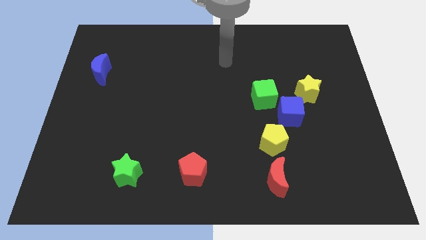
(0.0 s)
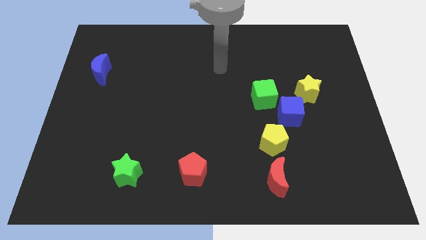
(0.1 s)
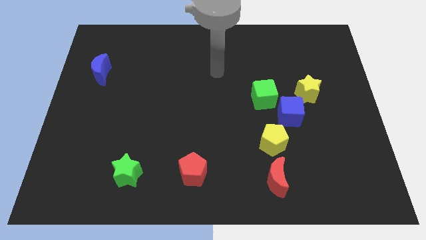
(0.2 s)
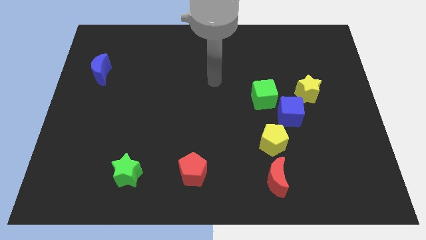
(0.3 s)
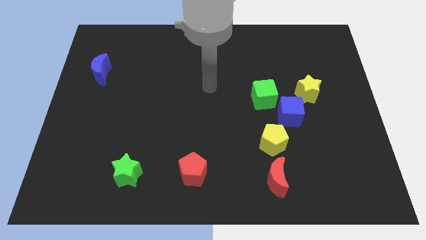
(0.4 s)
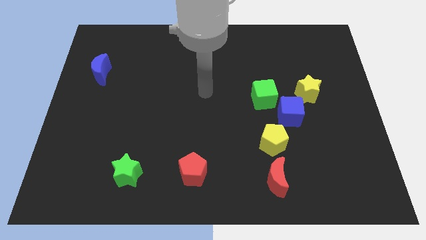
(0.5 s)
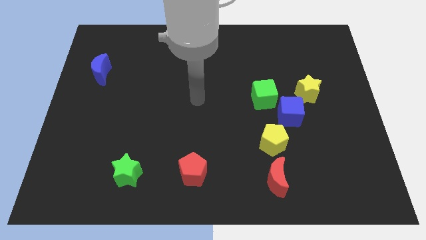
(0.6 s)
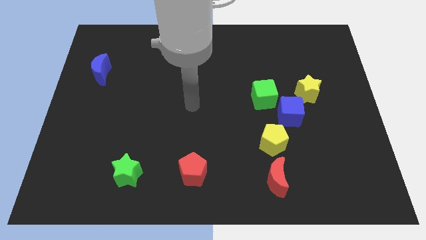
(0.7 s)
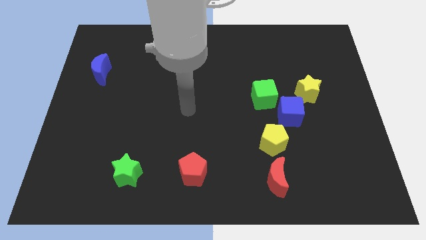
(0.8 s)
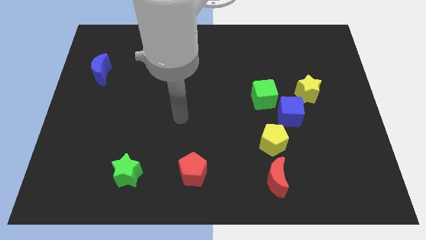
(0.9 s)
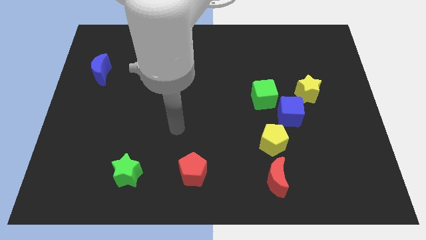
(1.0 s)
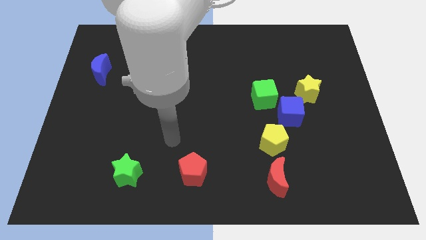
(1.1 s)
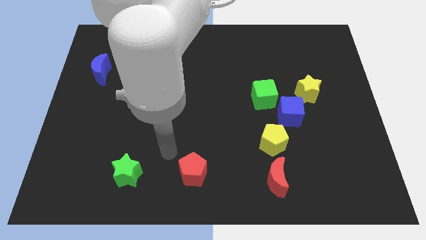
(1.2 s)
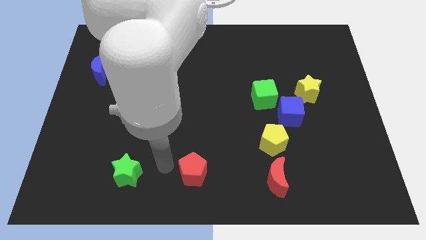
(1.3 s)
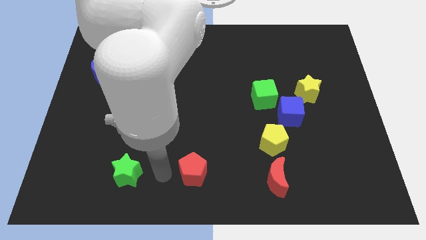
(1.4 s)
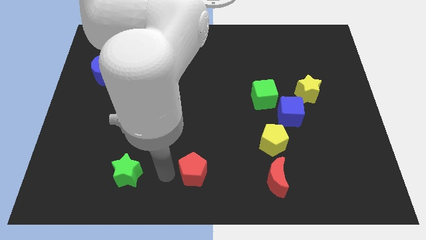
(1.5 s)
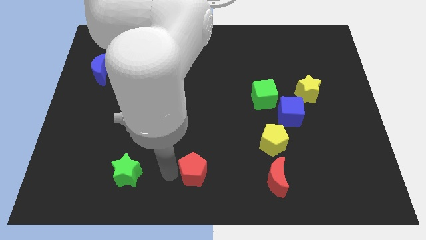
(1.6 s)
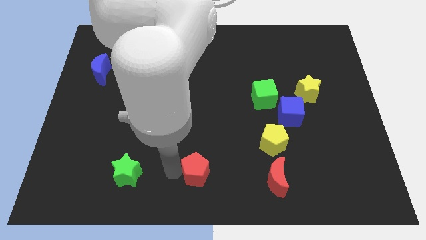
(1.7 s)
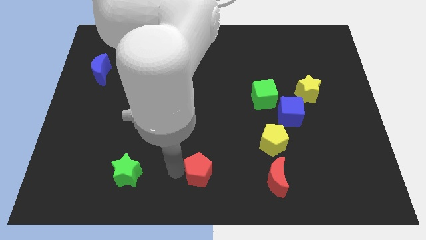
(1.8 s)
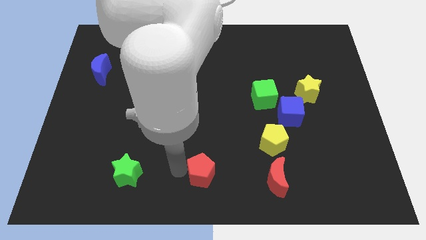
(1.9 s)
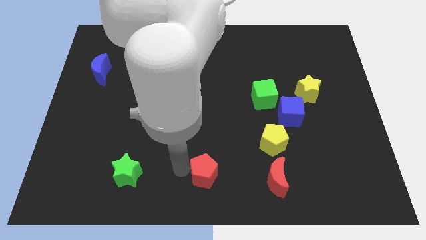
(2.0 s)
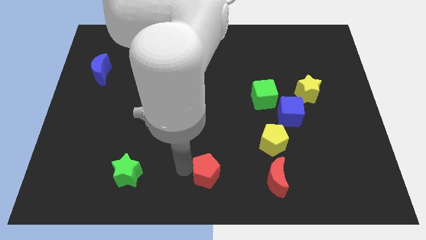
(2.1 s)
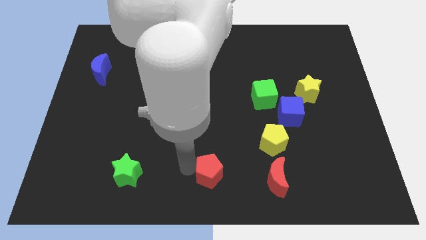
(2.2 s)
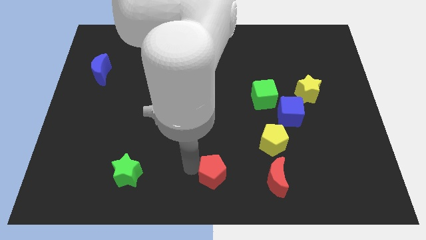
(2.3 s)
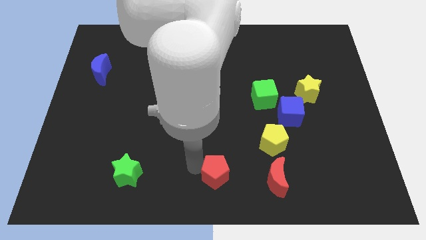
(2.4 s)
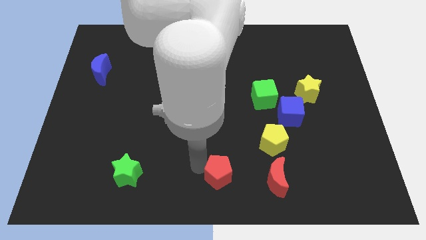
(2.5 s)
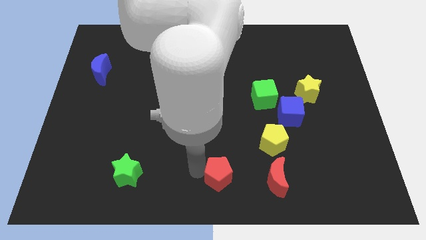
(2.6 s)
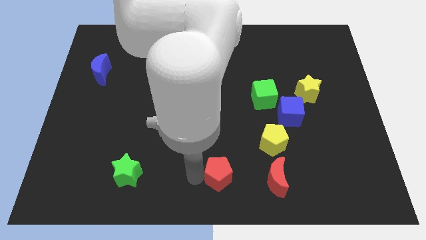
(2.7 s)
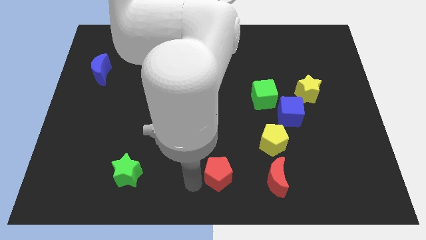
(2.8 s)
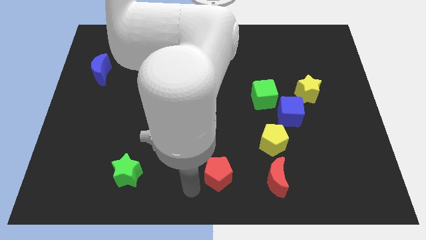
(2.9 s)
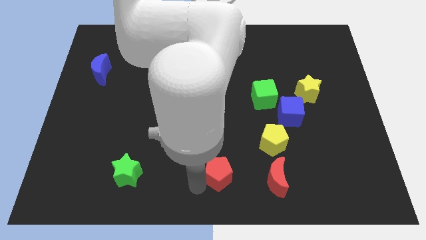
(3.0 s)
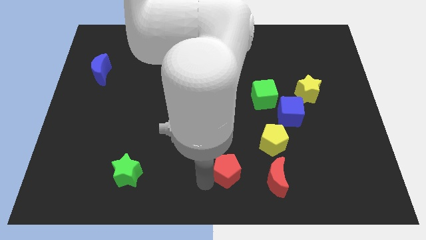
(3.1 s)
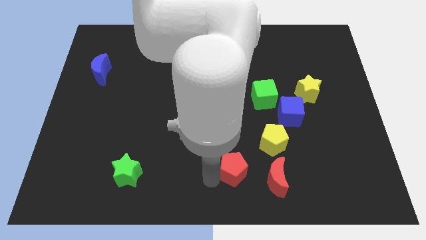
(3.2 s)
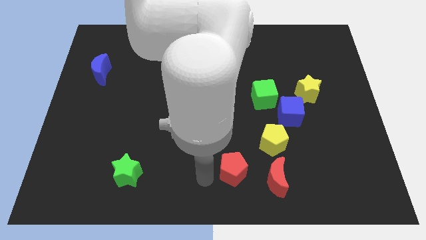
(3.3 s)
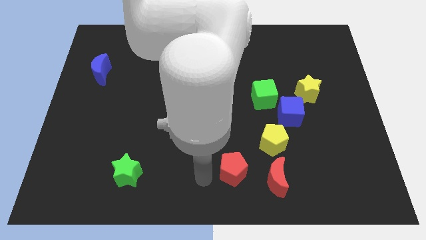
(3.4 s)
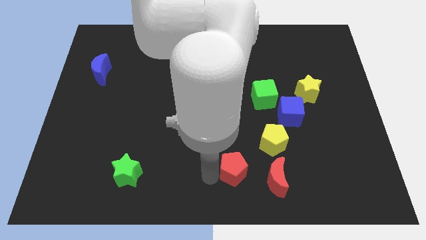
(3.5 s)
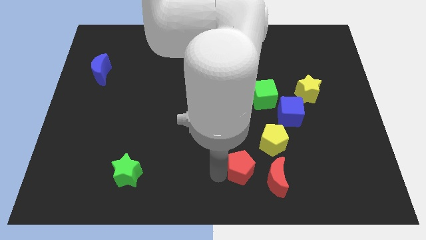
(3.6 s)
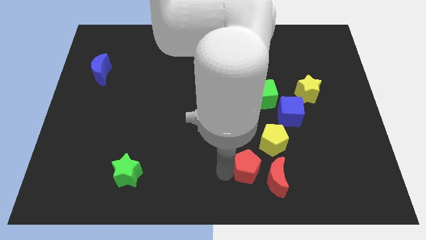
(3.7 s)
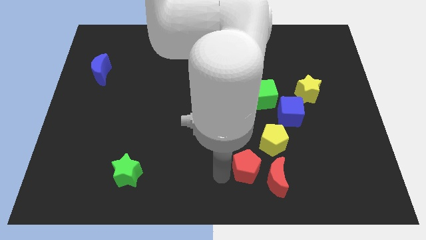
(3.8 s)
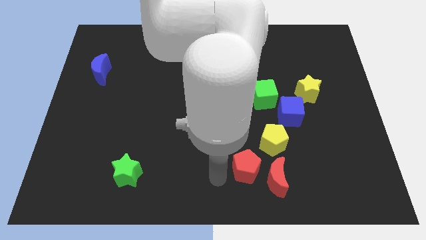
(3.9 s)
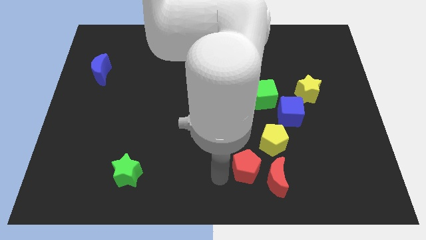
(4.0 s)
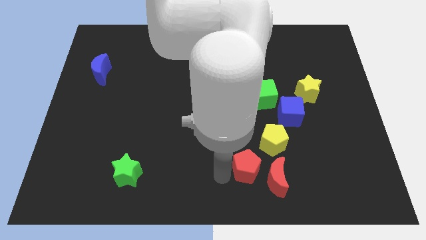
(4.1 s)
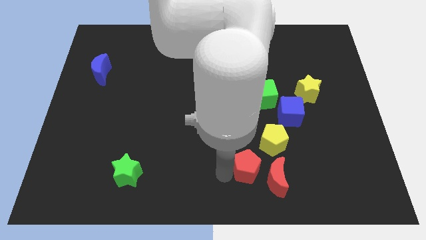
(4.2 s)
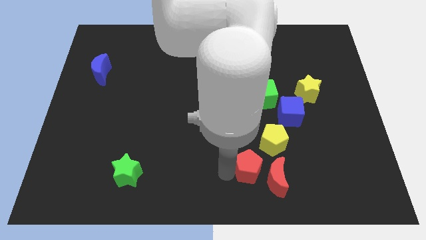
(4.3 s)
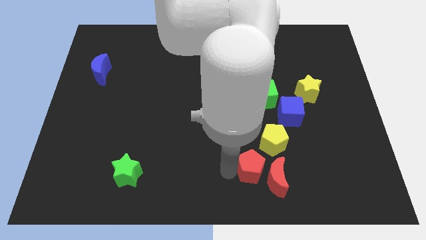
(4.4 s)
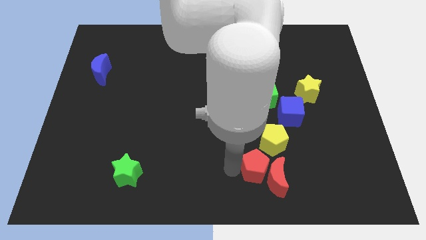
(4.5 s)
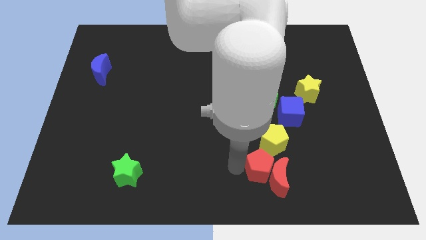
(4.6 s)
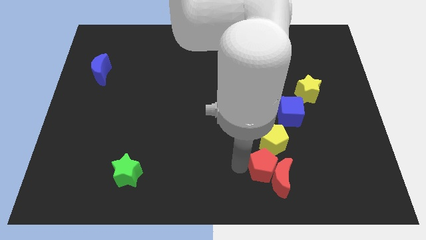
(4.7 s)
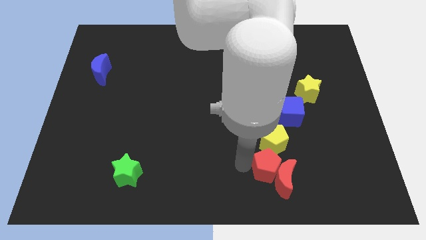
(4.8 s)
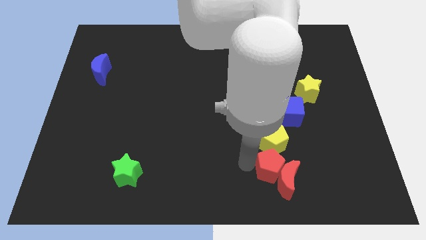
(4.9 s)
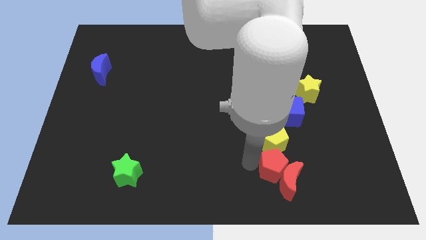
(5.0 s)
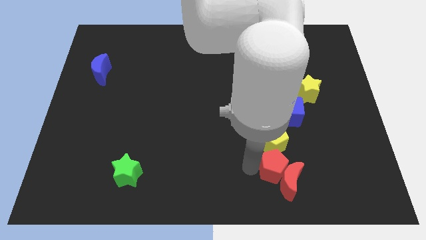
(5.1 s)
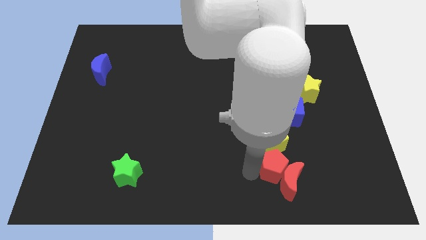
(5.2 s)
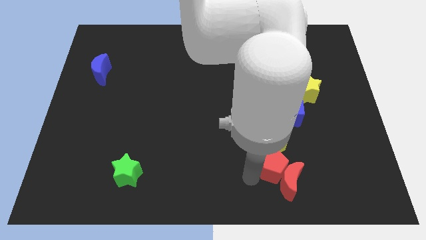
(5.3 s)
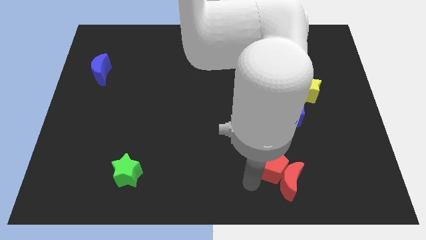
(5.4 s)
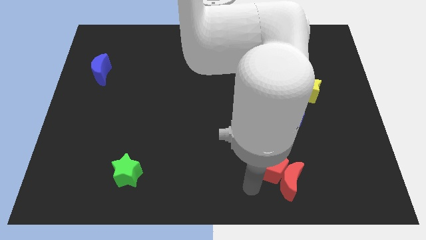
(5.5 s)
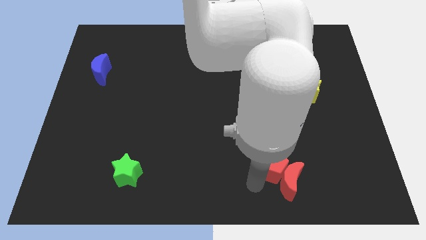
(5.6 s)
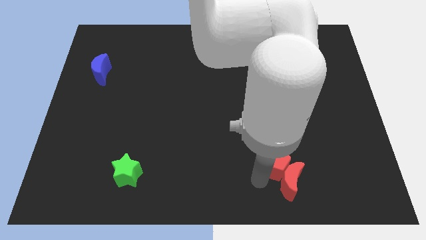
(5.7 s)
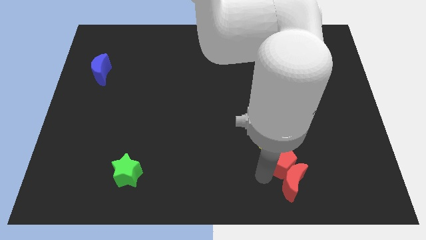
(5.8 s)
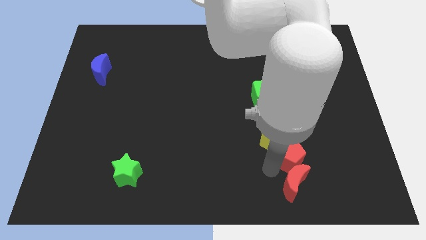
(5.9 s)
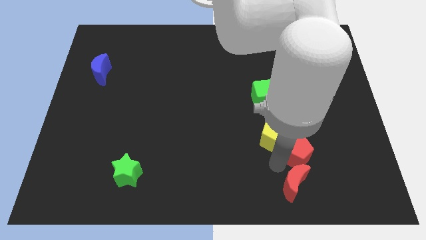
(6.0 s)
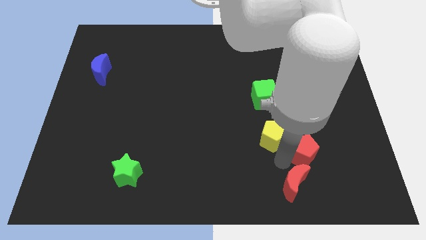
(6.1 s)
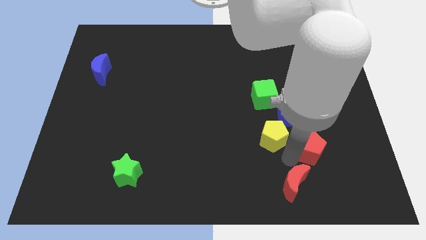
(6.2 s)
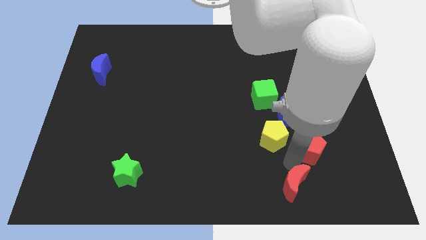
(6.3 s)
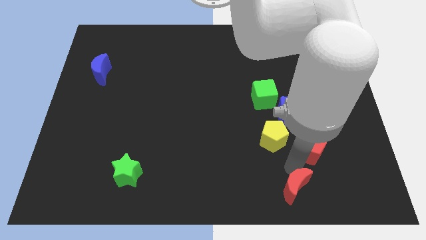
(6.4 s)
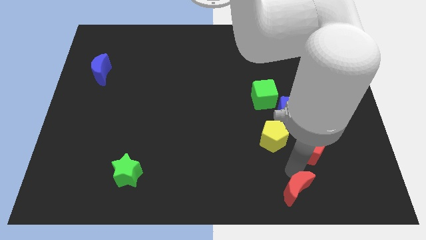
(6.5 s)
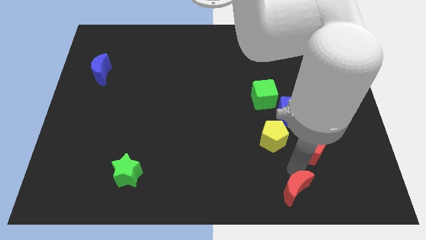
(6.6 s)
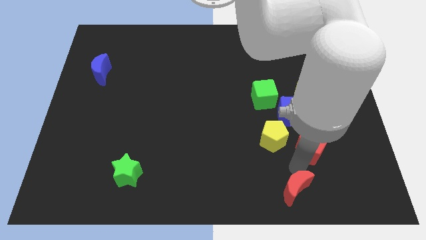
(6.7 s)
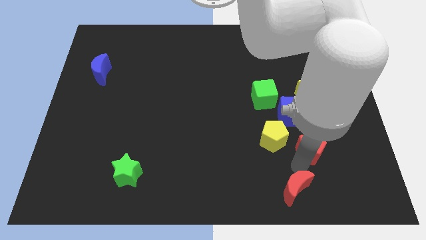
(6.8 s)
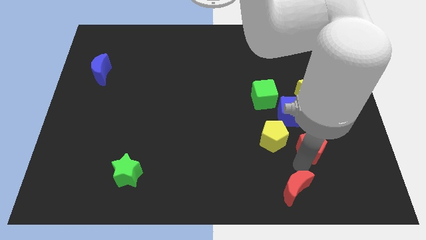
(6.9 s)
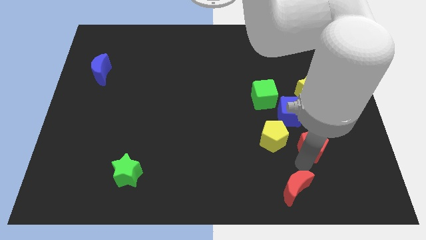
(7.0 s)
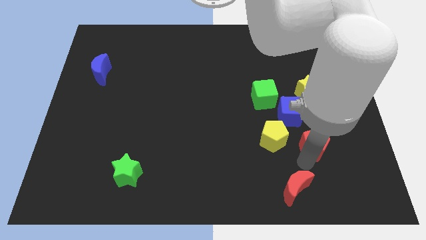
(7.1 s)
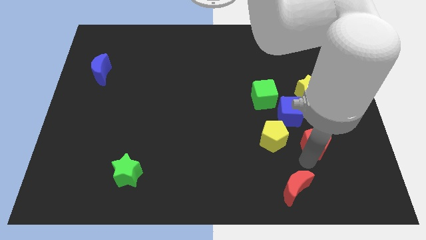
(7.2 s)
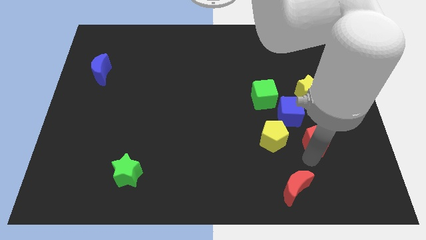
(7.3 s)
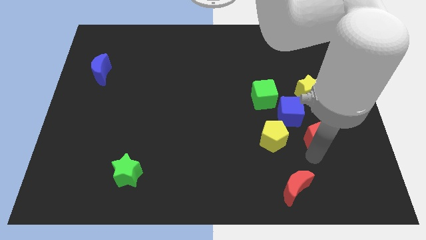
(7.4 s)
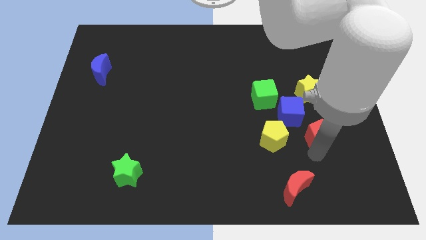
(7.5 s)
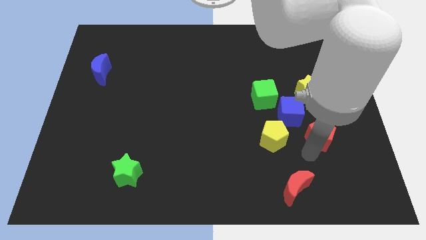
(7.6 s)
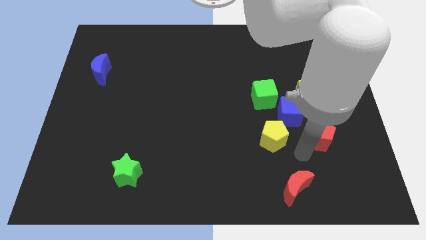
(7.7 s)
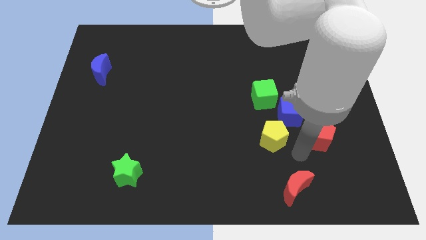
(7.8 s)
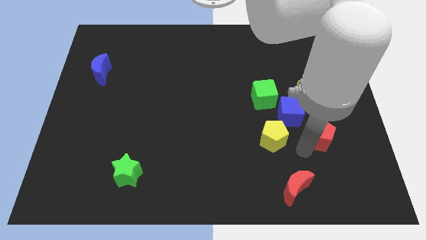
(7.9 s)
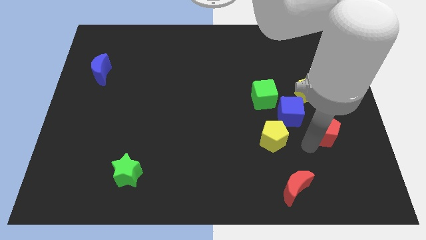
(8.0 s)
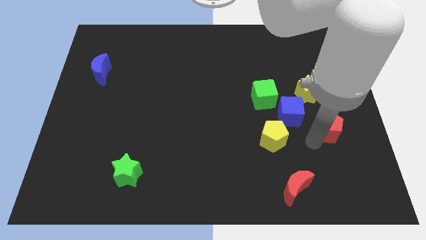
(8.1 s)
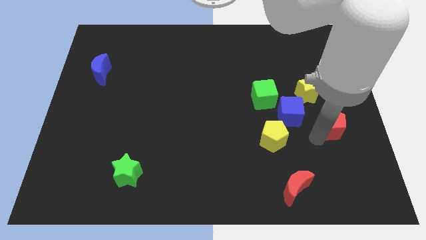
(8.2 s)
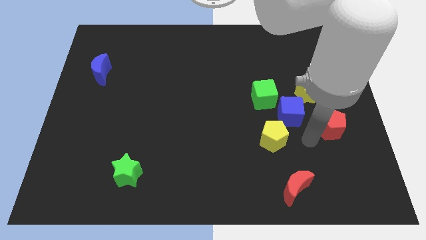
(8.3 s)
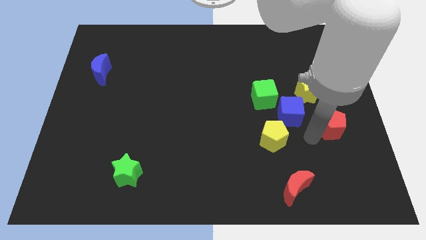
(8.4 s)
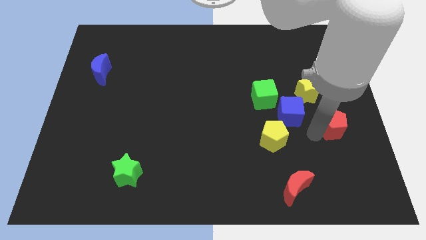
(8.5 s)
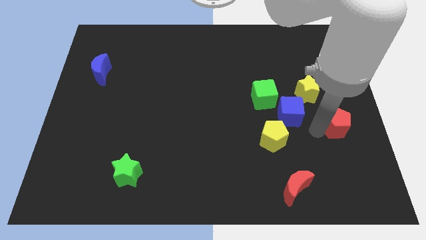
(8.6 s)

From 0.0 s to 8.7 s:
put the red pentagon to the right side of the board
